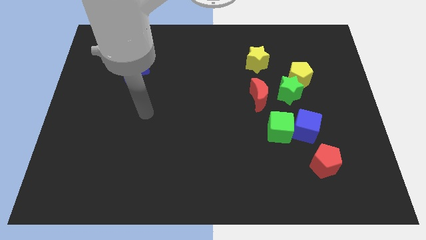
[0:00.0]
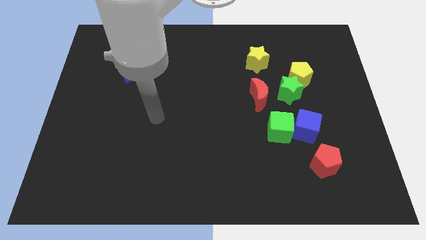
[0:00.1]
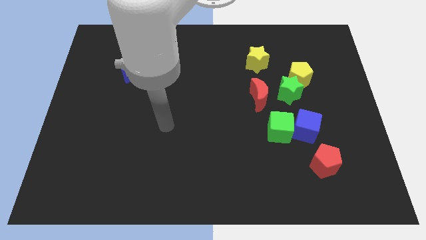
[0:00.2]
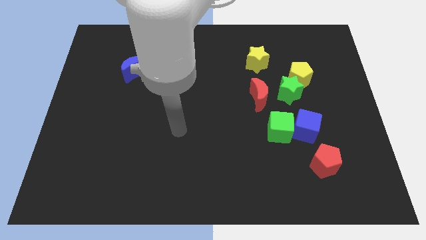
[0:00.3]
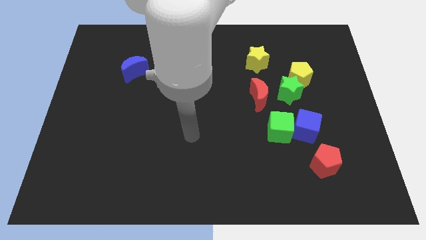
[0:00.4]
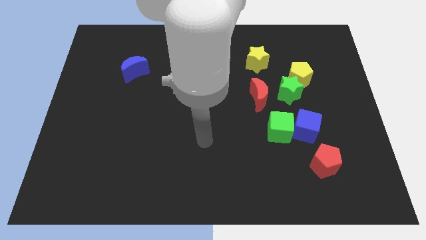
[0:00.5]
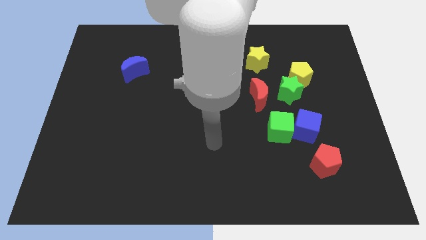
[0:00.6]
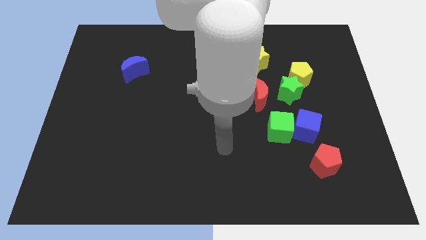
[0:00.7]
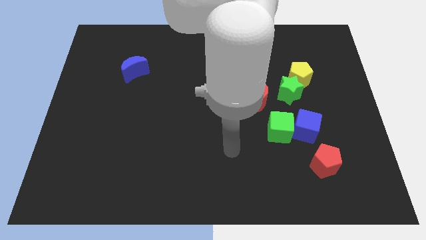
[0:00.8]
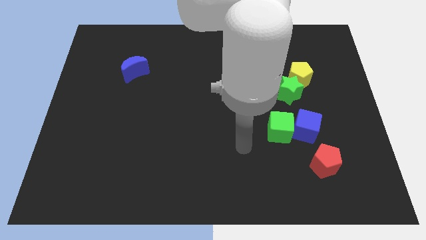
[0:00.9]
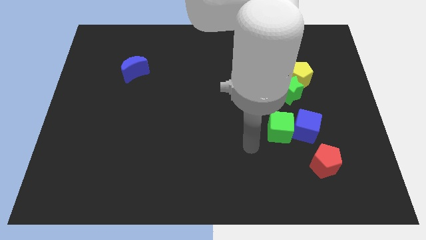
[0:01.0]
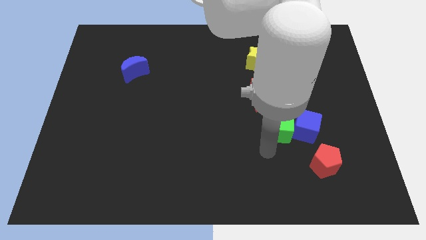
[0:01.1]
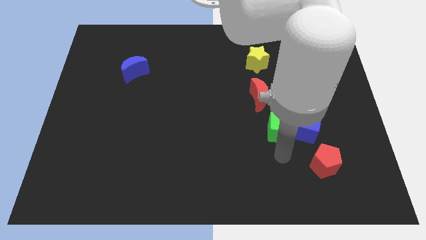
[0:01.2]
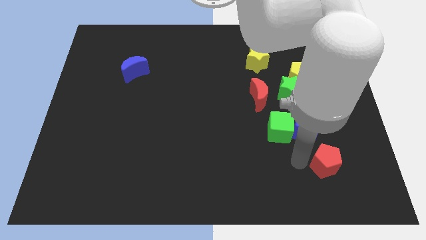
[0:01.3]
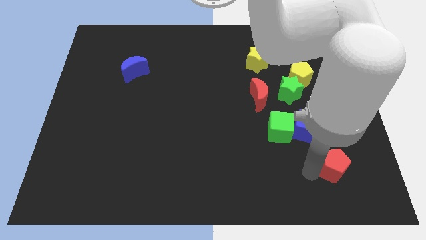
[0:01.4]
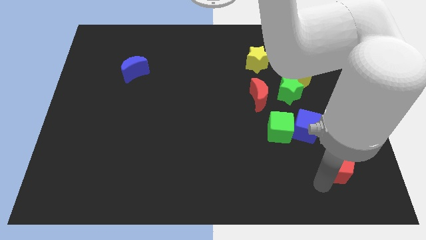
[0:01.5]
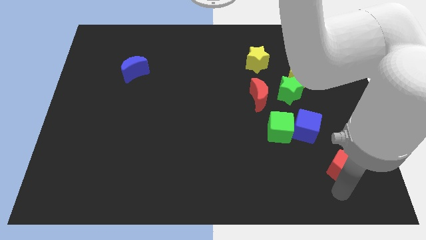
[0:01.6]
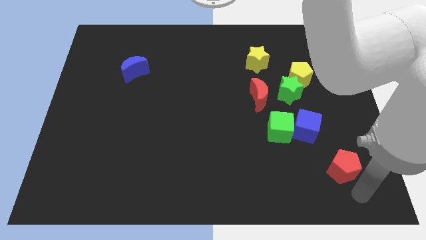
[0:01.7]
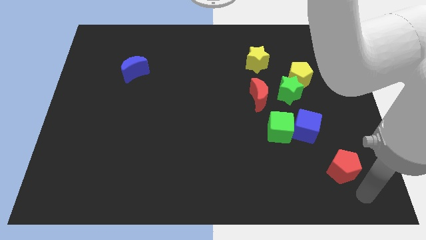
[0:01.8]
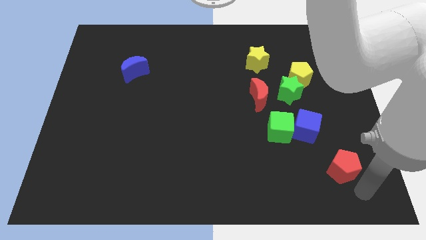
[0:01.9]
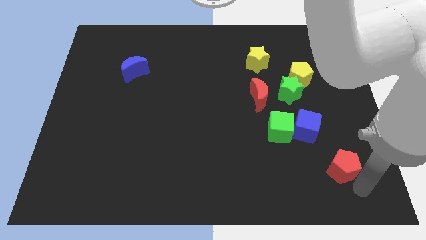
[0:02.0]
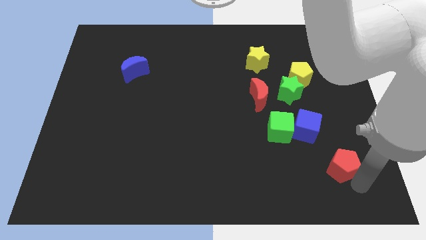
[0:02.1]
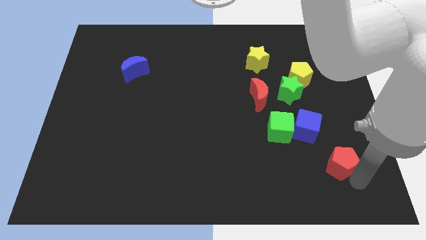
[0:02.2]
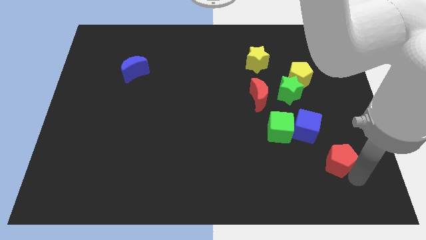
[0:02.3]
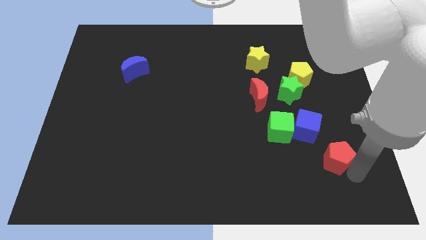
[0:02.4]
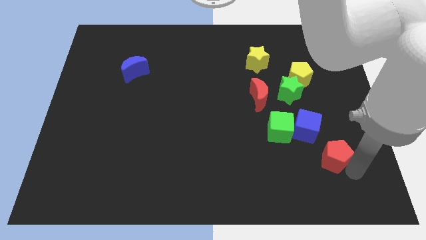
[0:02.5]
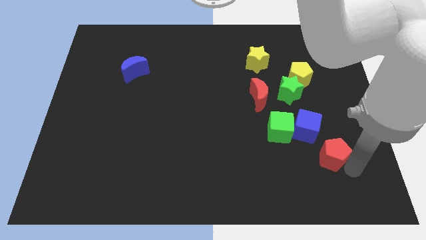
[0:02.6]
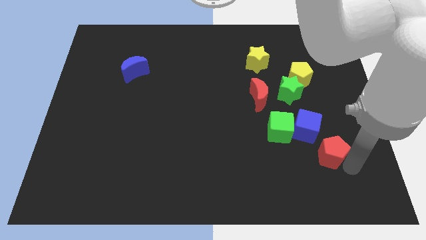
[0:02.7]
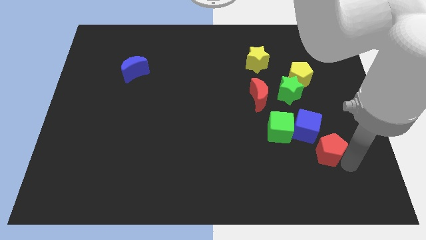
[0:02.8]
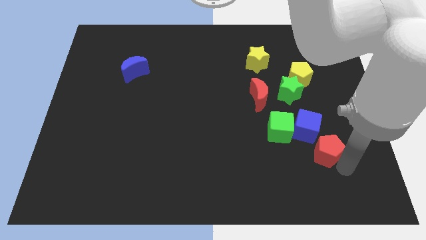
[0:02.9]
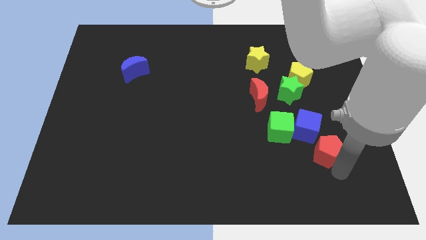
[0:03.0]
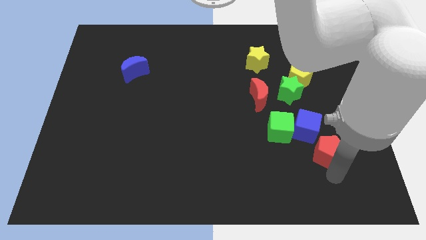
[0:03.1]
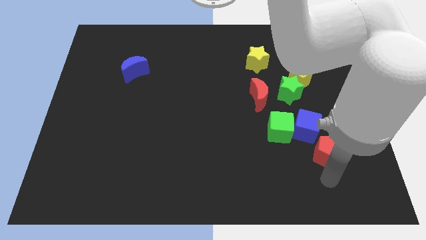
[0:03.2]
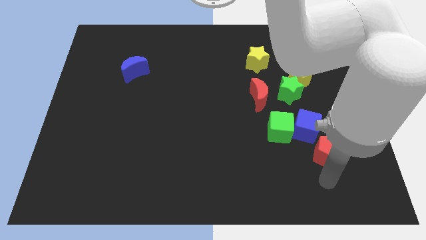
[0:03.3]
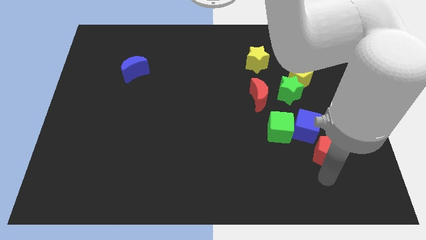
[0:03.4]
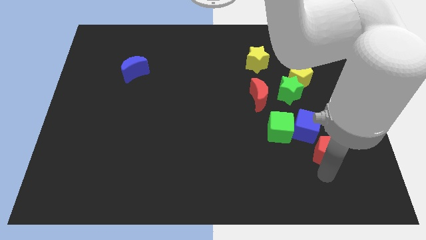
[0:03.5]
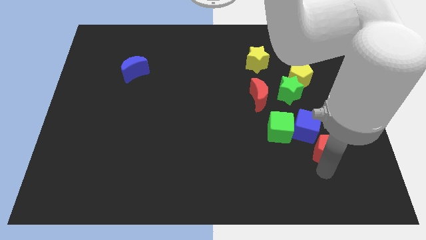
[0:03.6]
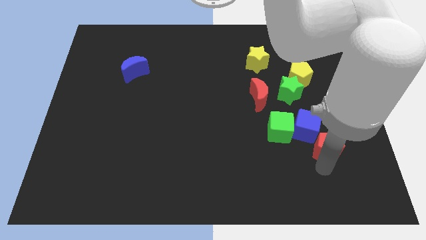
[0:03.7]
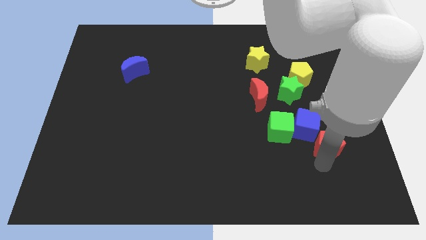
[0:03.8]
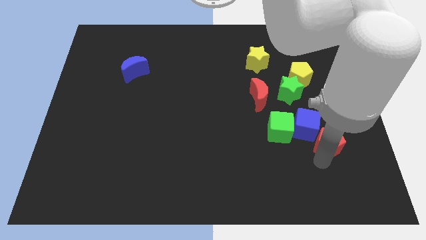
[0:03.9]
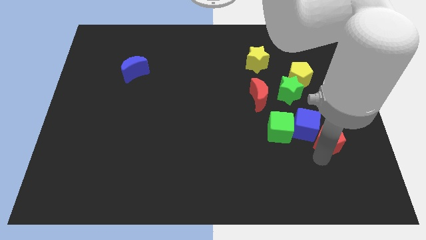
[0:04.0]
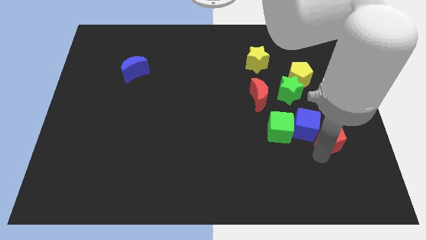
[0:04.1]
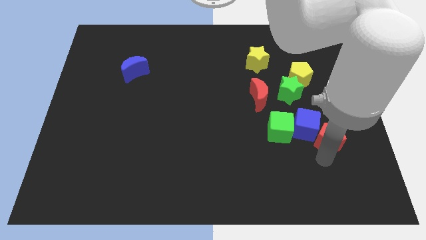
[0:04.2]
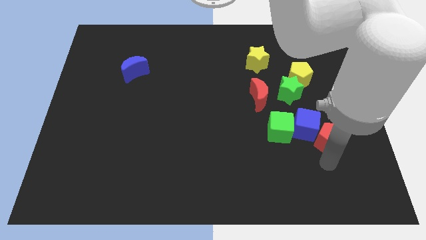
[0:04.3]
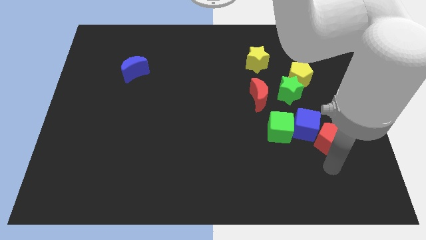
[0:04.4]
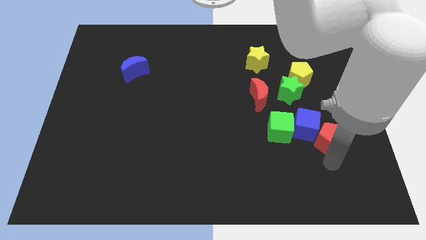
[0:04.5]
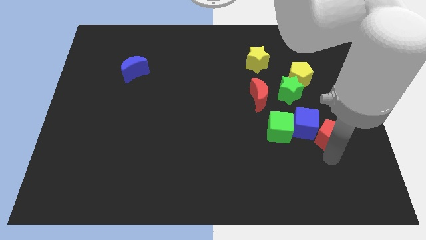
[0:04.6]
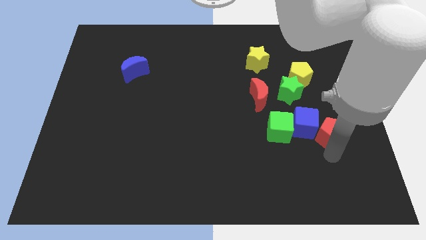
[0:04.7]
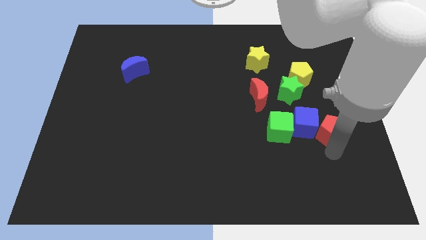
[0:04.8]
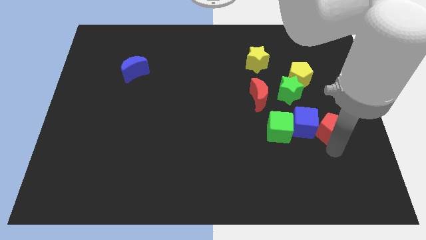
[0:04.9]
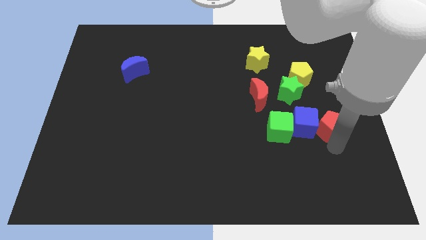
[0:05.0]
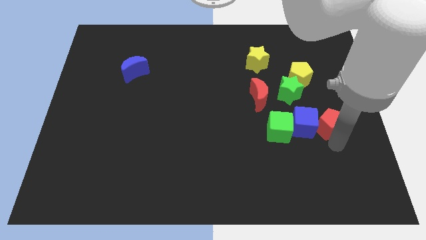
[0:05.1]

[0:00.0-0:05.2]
put the red pentagon diagonally down and to the right of the green star

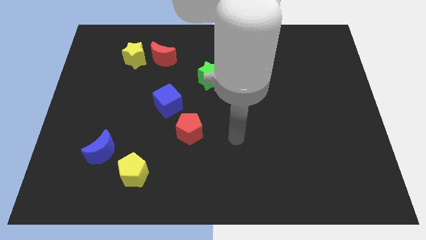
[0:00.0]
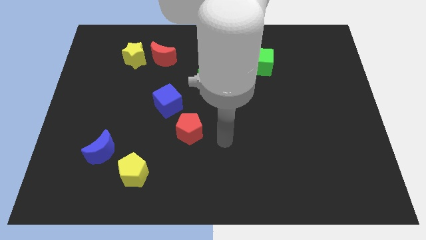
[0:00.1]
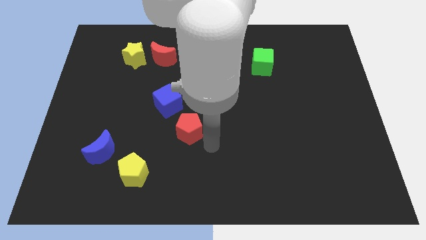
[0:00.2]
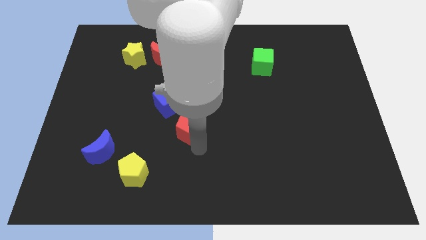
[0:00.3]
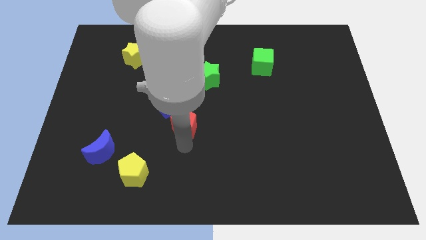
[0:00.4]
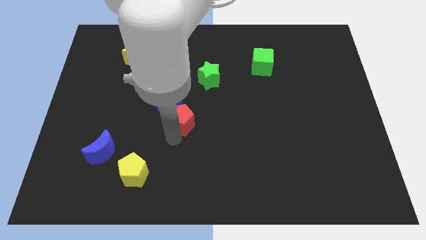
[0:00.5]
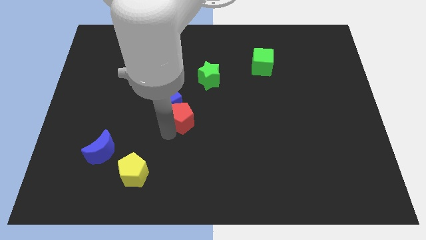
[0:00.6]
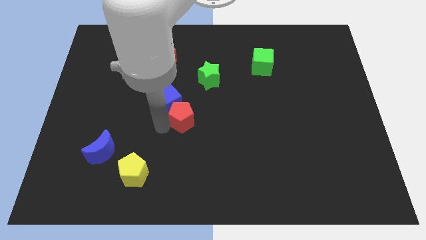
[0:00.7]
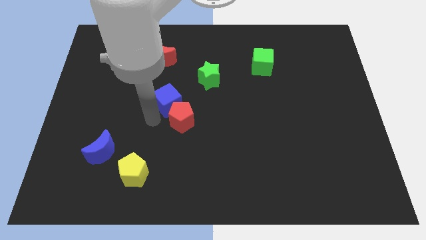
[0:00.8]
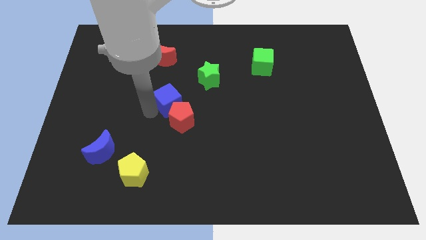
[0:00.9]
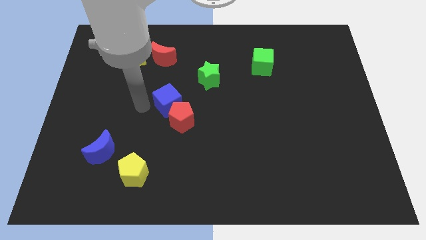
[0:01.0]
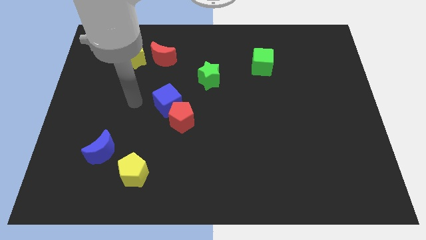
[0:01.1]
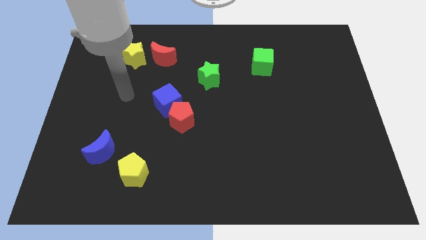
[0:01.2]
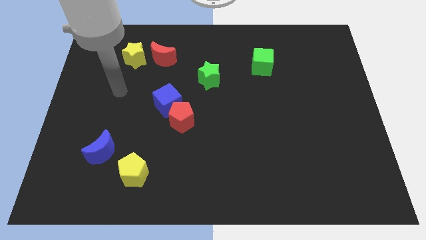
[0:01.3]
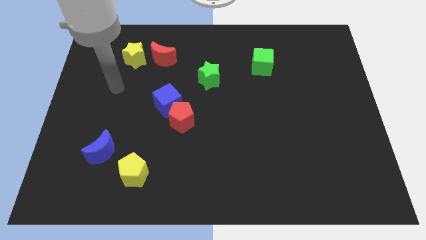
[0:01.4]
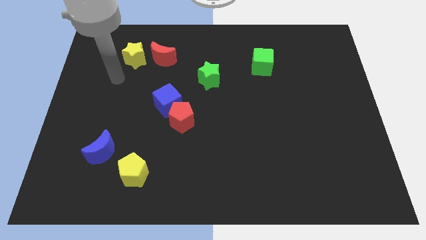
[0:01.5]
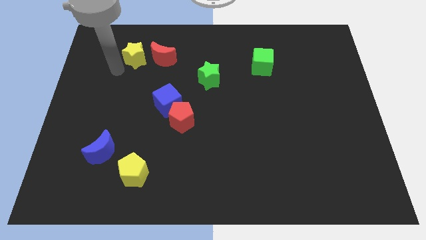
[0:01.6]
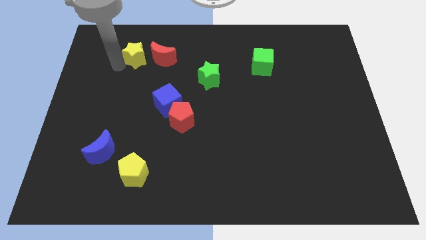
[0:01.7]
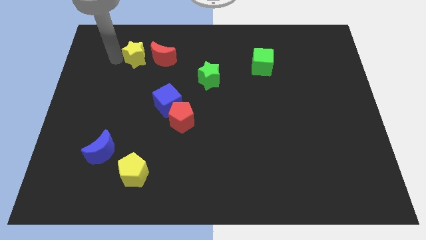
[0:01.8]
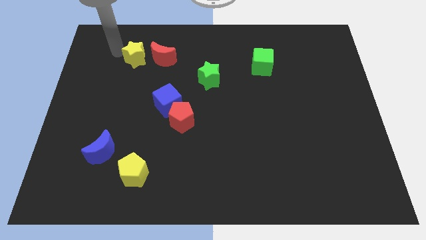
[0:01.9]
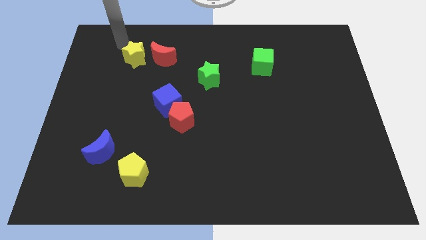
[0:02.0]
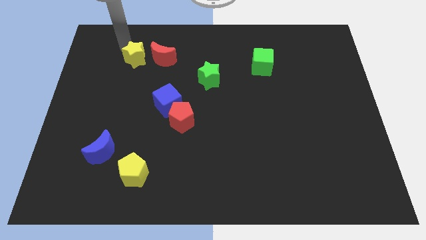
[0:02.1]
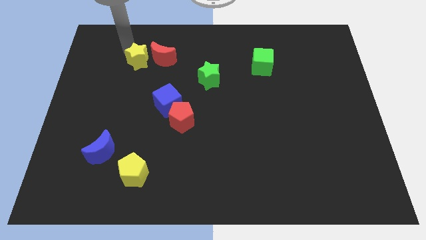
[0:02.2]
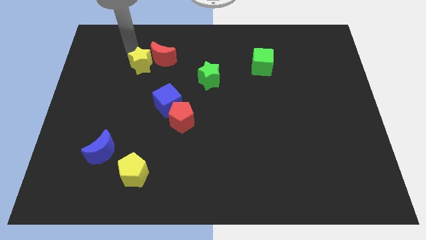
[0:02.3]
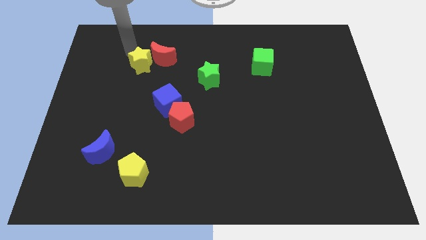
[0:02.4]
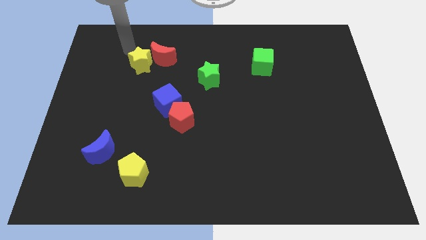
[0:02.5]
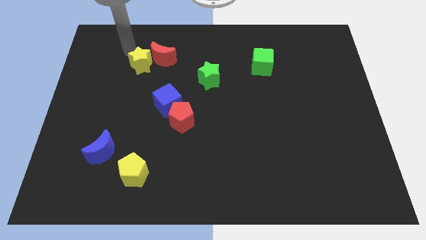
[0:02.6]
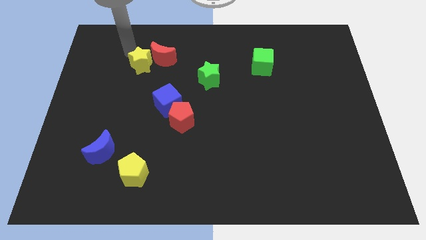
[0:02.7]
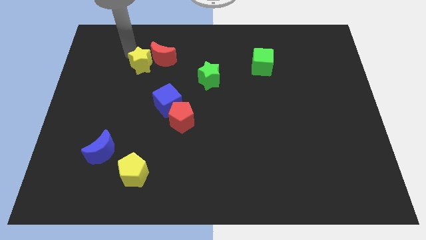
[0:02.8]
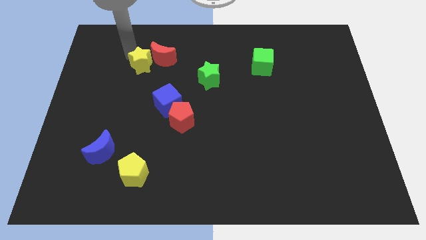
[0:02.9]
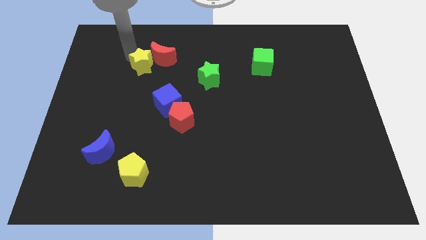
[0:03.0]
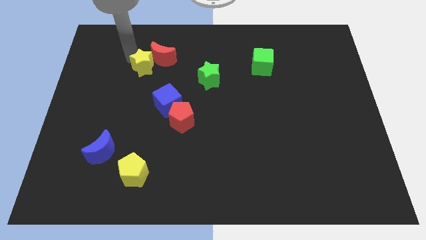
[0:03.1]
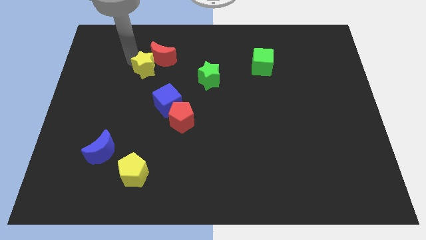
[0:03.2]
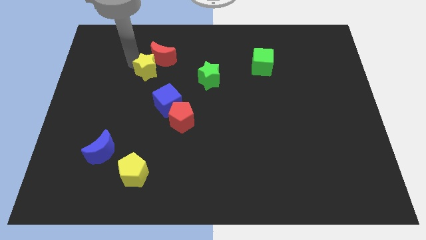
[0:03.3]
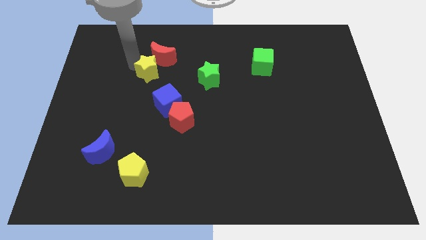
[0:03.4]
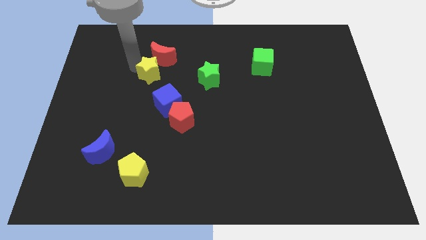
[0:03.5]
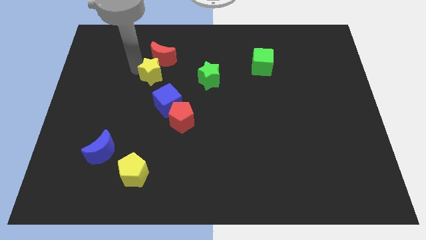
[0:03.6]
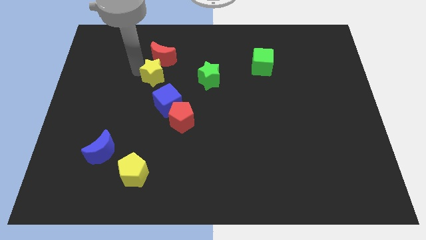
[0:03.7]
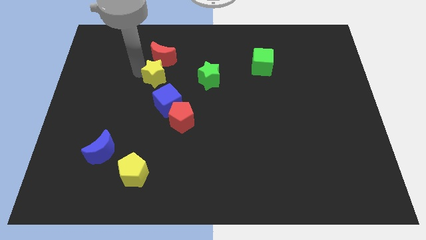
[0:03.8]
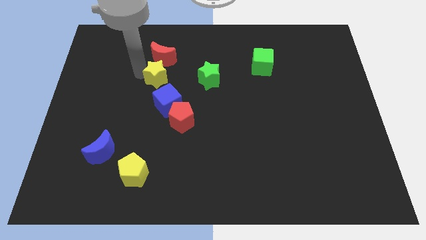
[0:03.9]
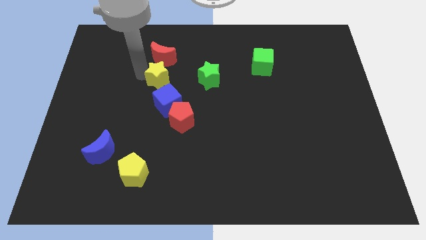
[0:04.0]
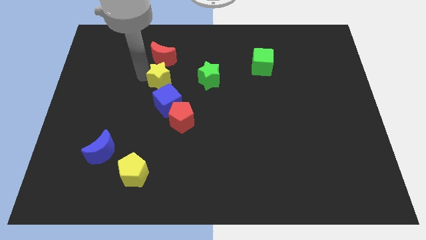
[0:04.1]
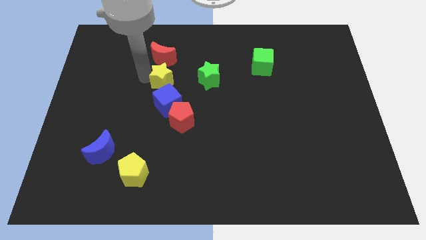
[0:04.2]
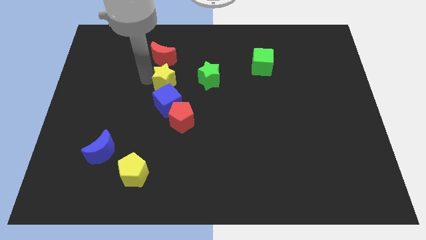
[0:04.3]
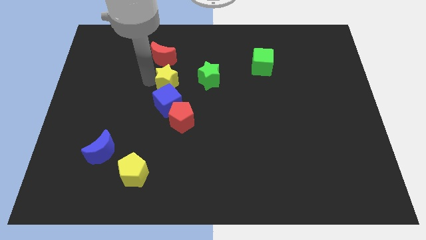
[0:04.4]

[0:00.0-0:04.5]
slide the yellow star to the top of the red pentagon
